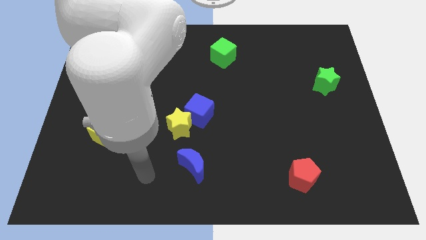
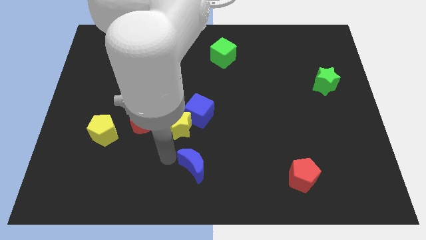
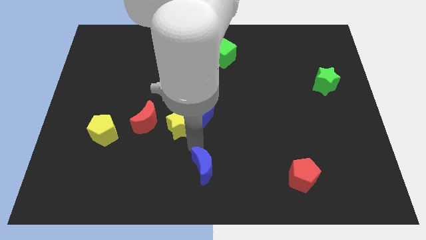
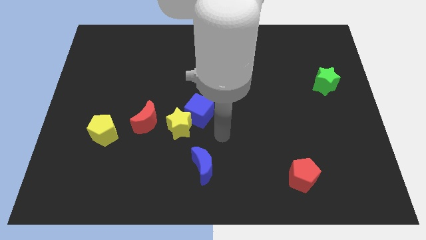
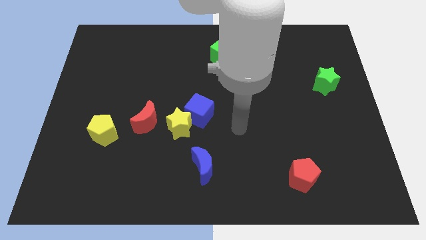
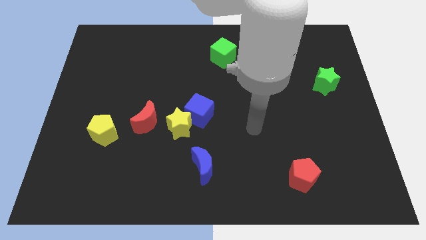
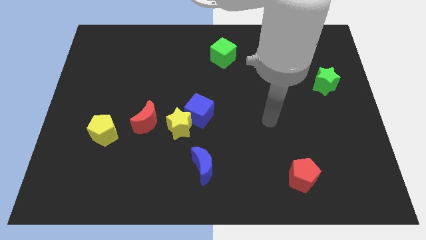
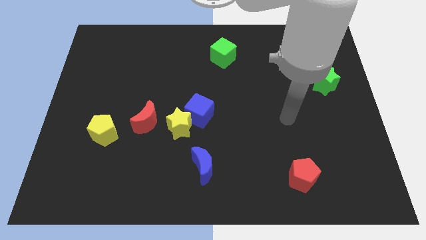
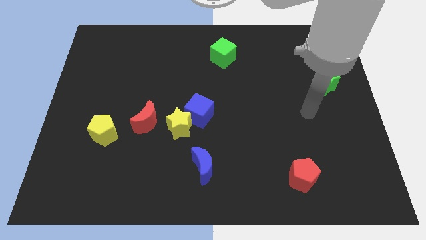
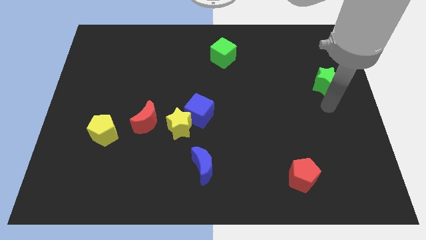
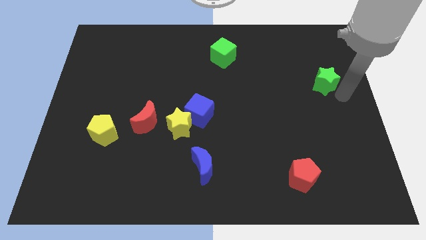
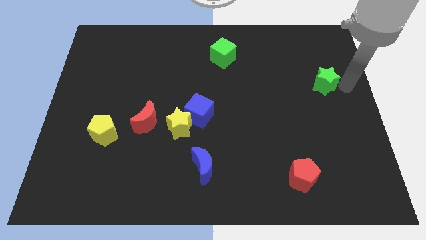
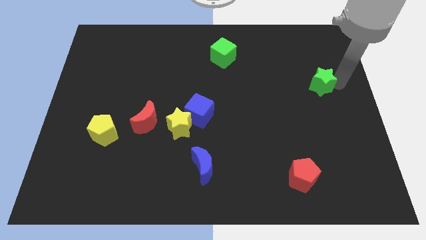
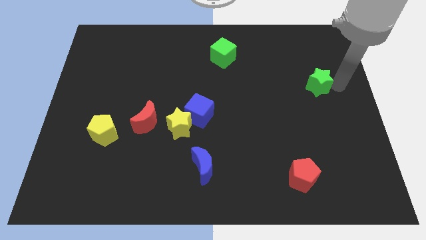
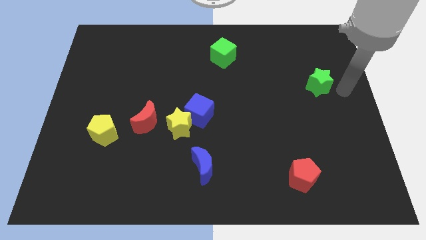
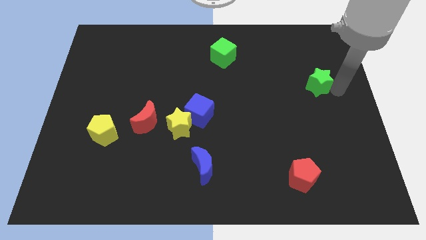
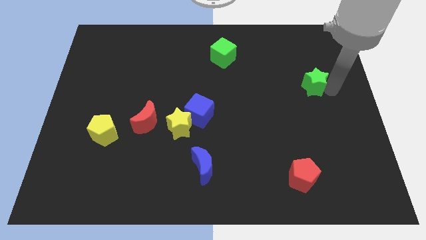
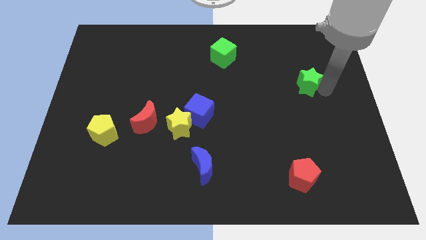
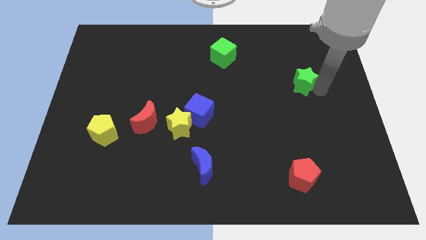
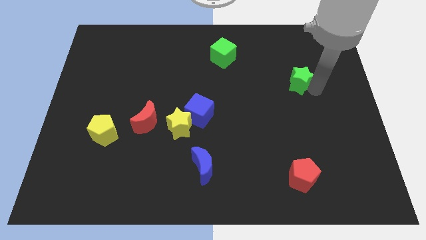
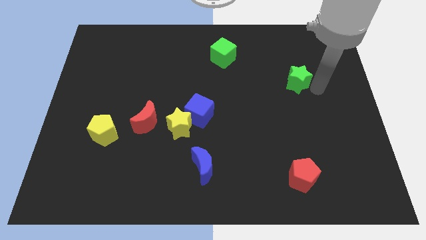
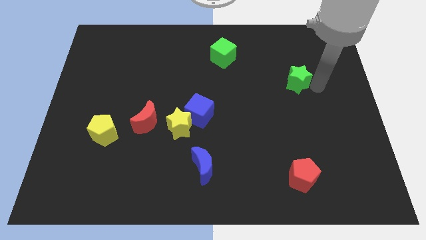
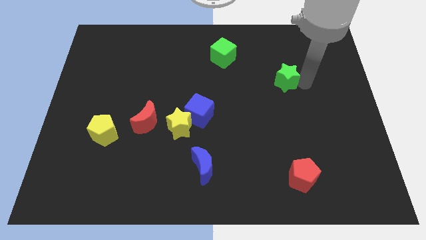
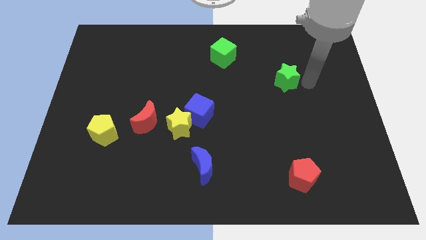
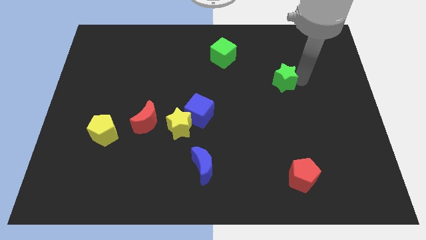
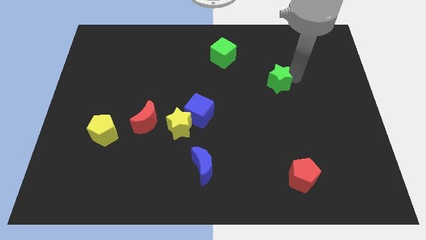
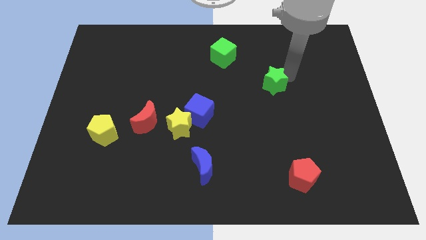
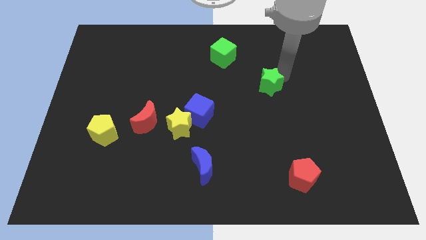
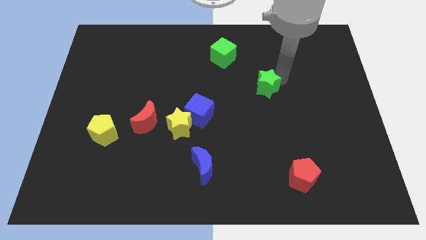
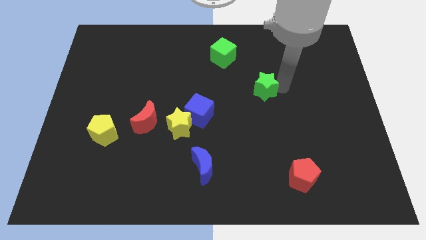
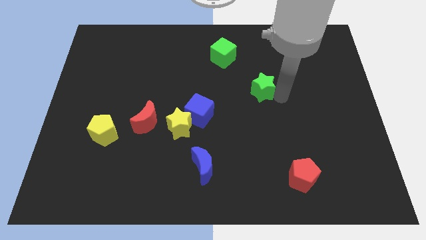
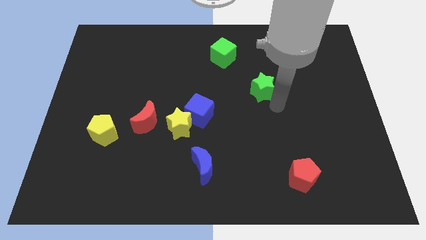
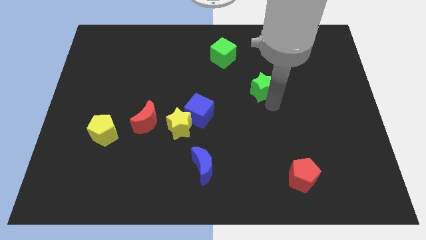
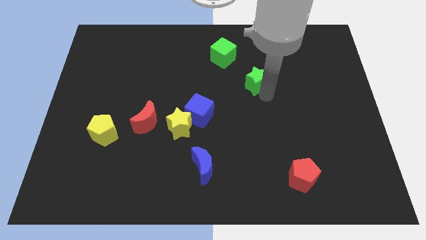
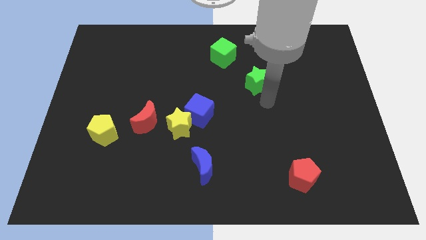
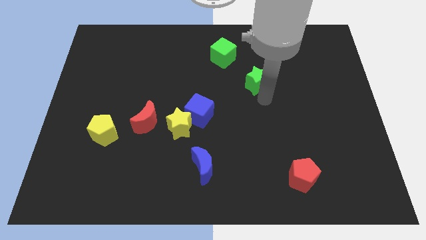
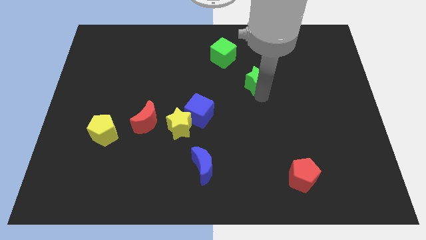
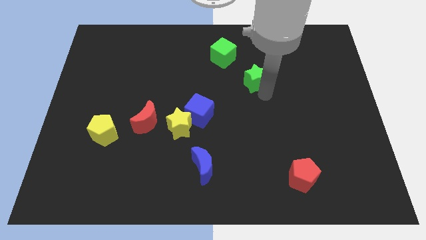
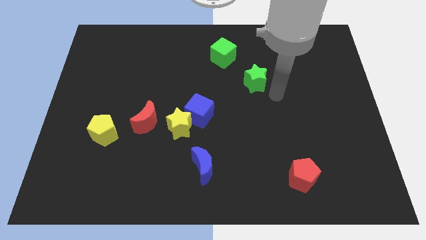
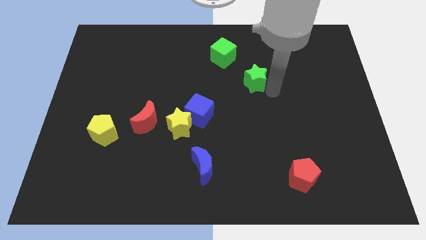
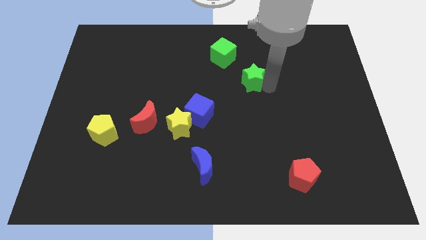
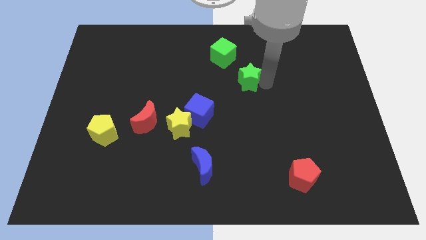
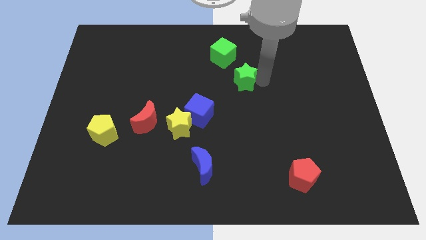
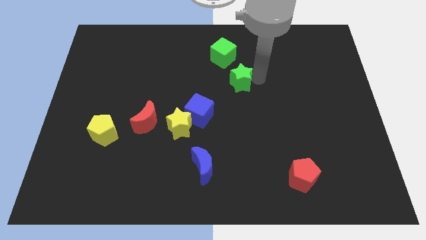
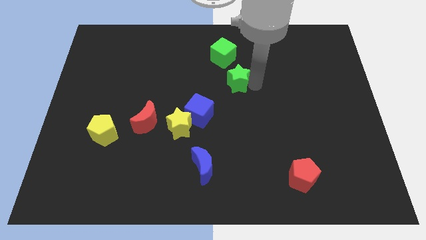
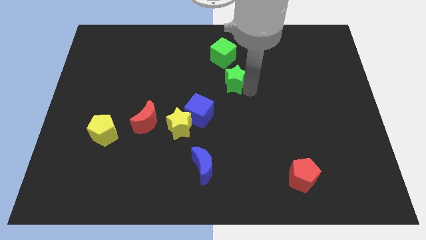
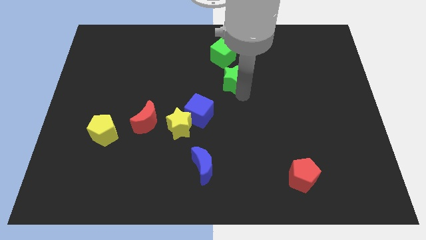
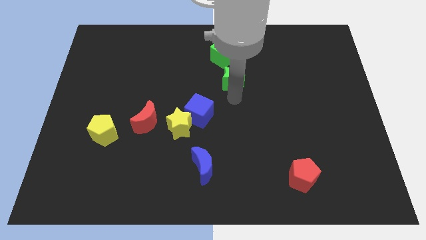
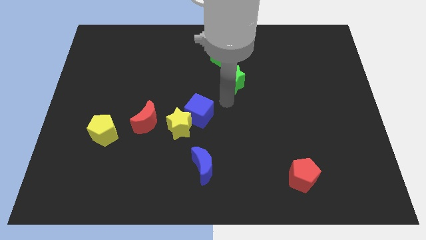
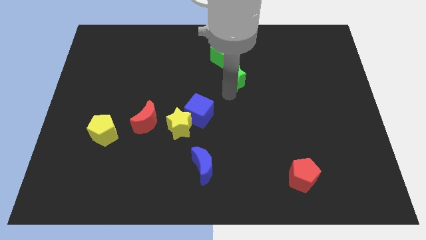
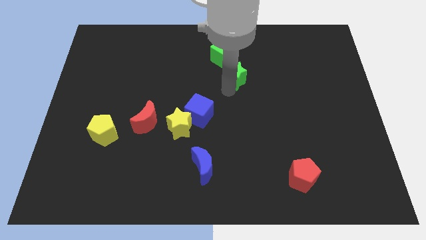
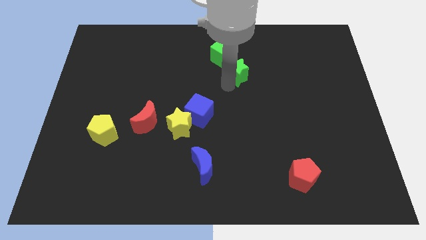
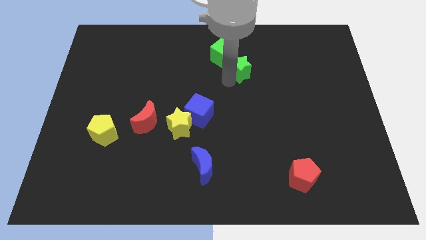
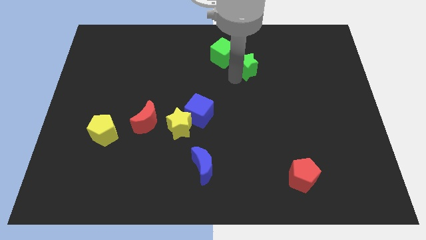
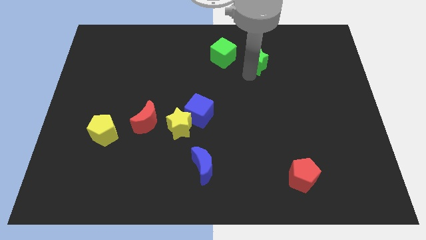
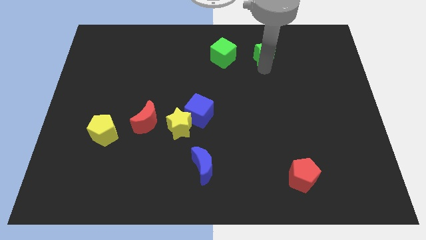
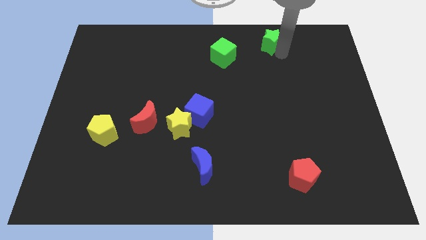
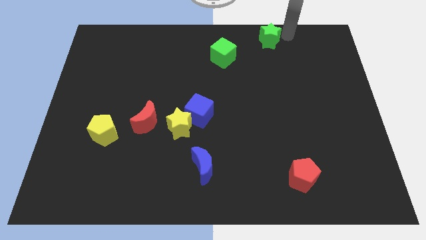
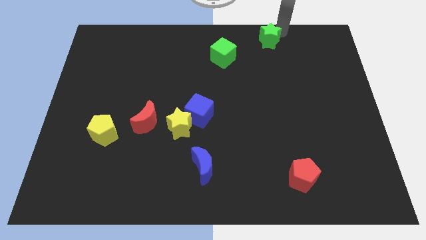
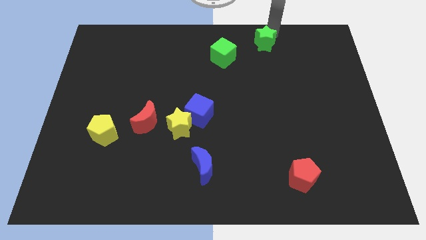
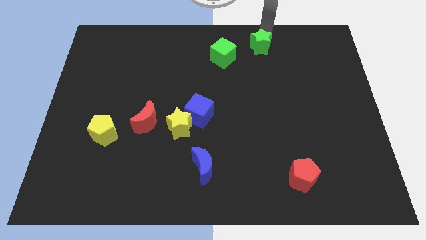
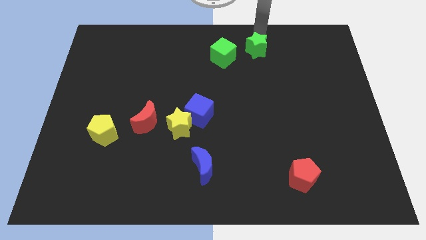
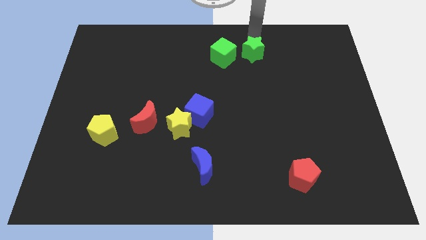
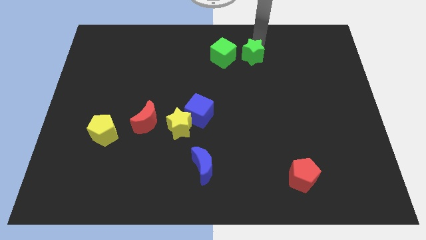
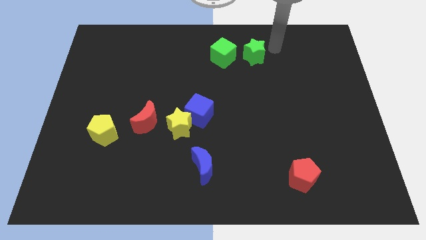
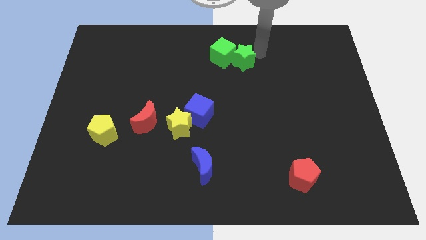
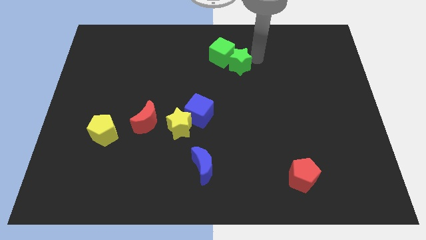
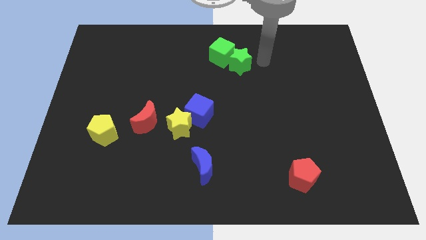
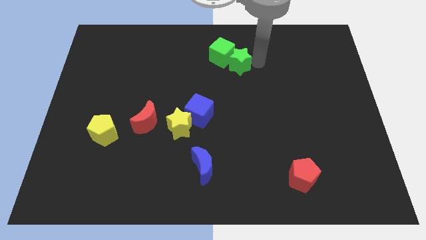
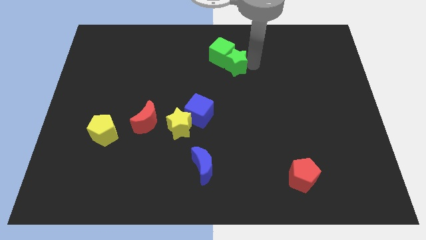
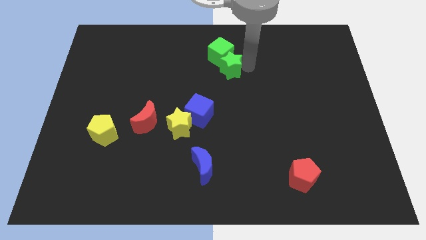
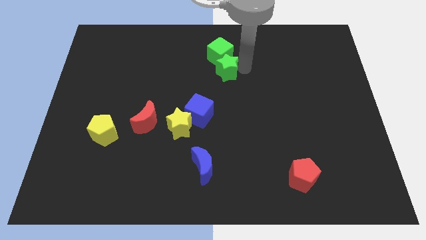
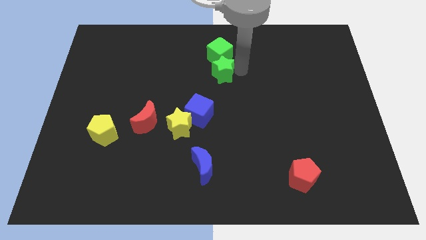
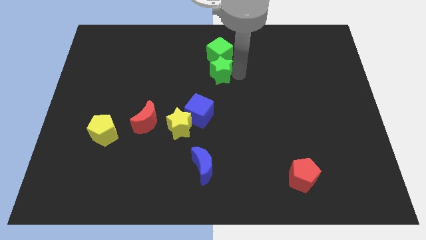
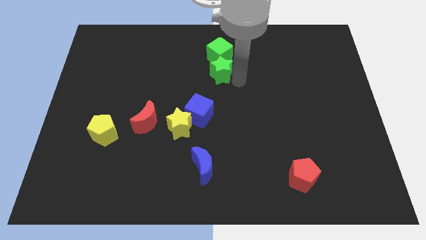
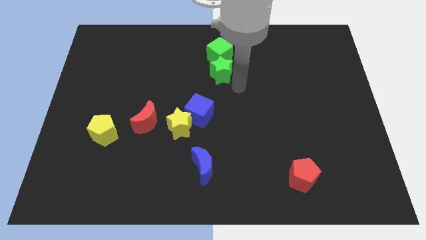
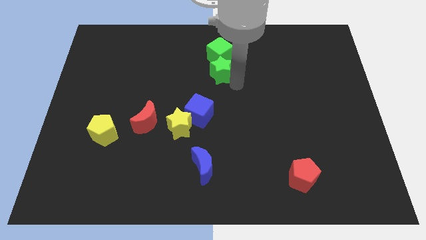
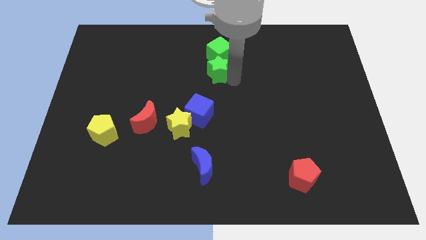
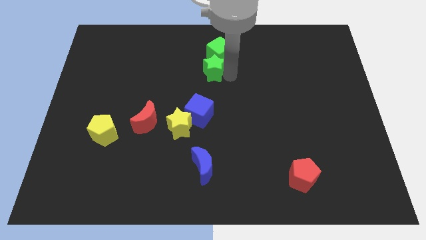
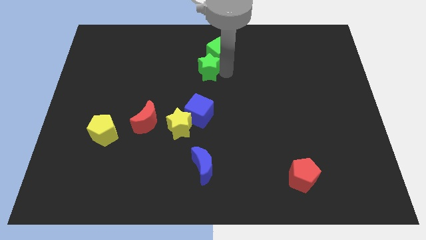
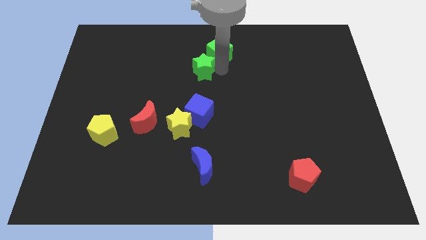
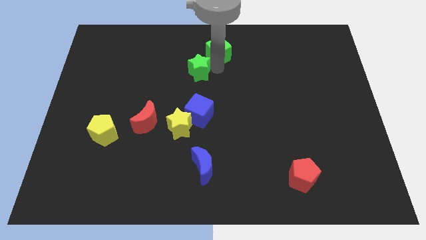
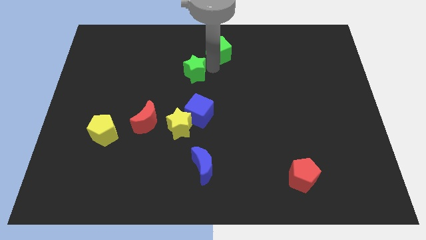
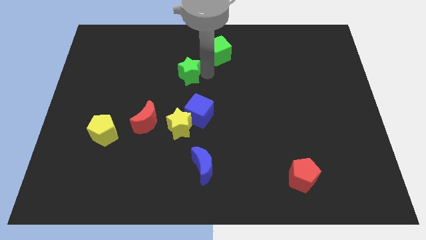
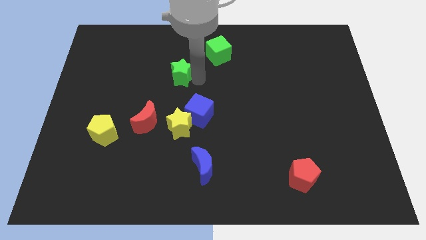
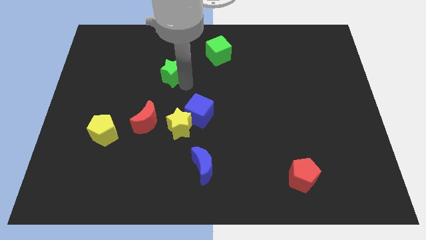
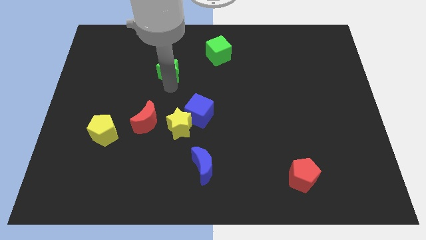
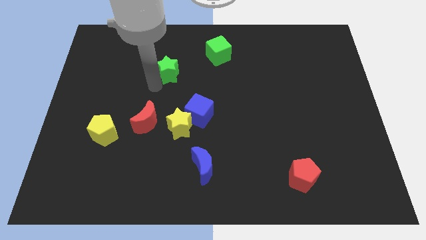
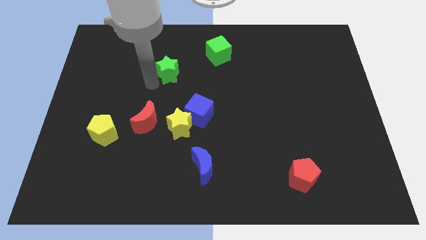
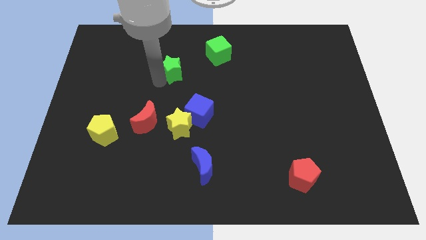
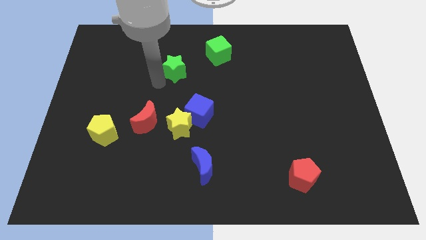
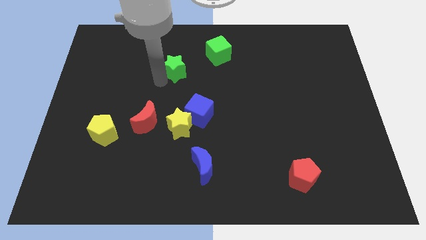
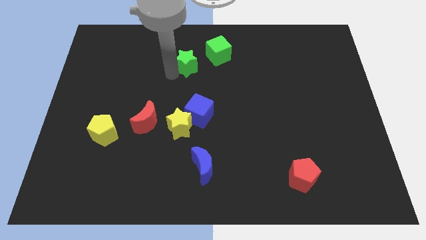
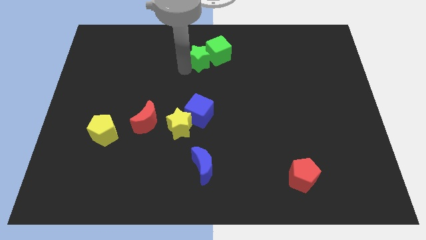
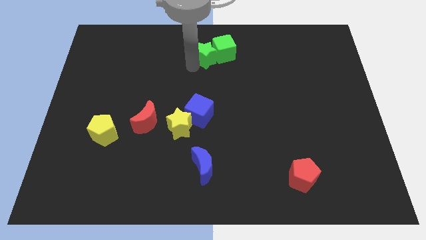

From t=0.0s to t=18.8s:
move the green star to the top side
